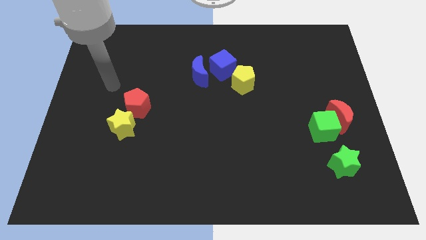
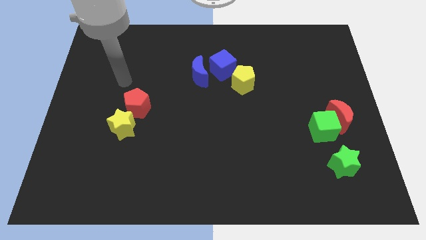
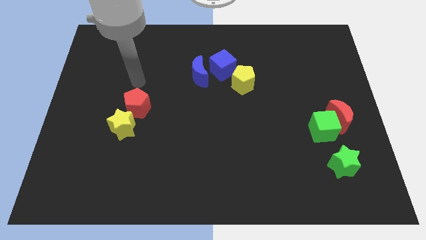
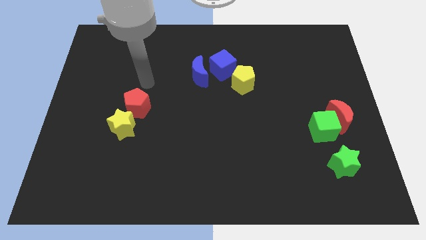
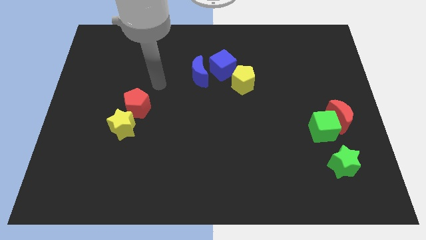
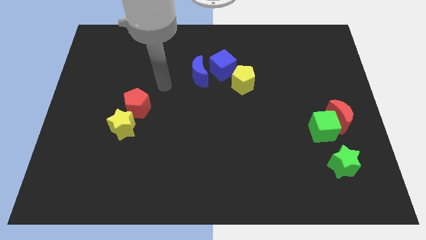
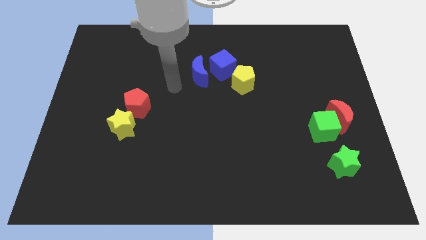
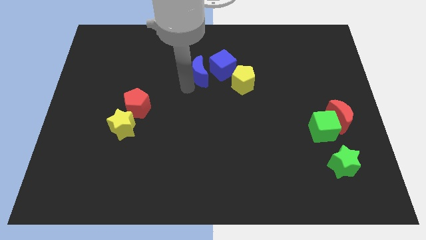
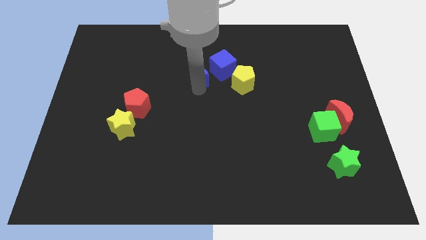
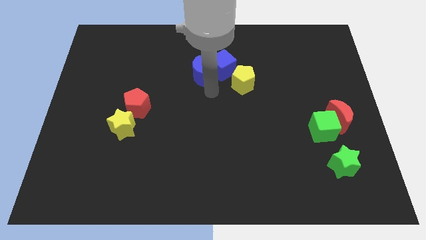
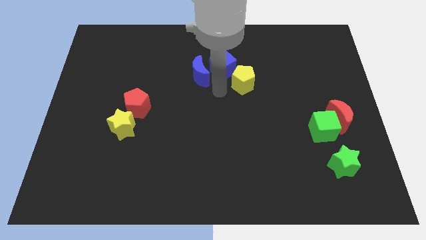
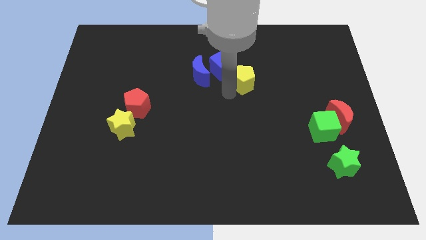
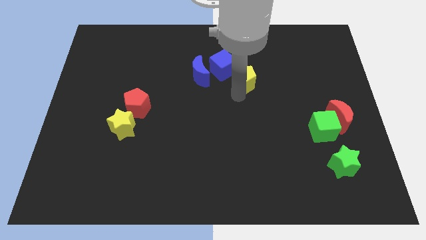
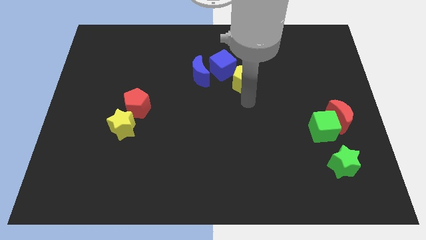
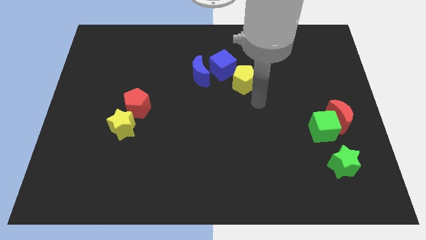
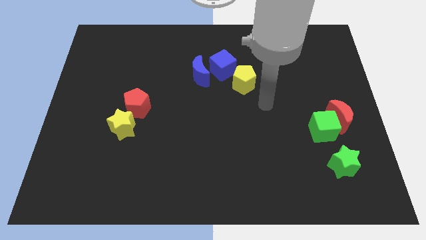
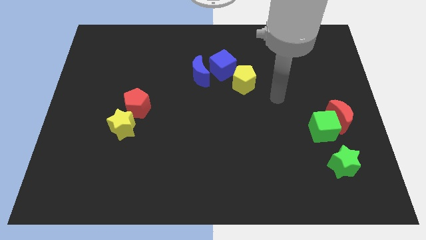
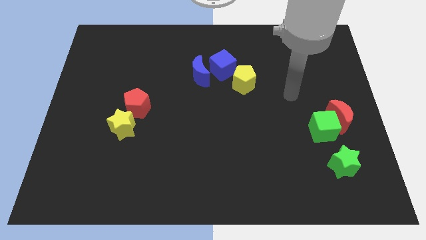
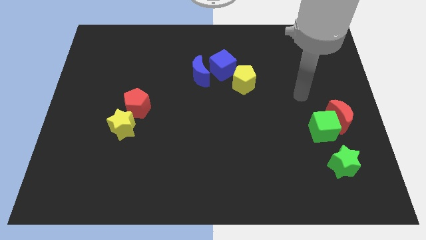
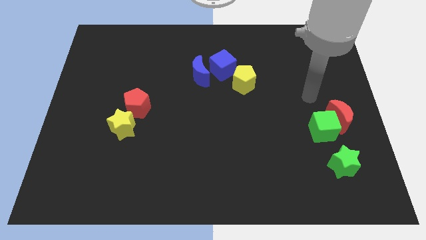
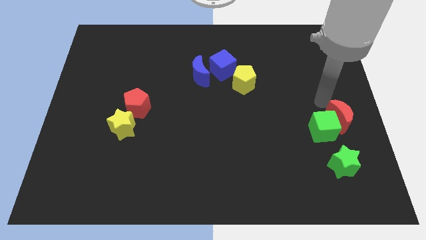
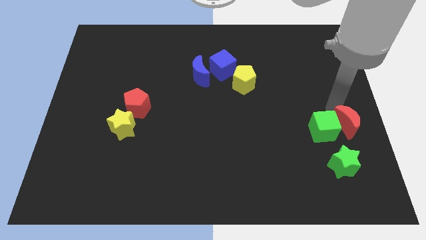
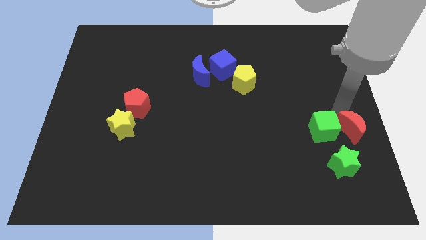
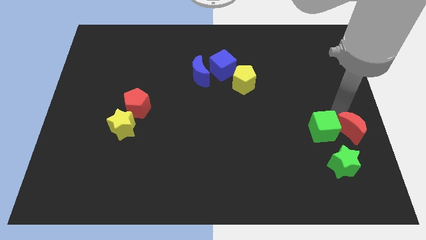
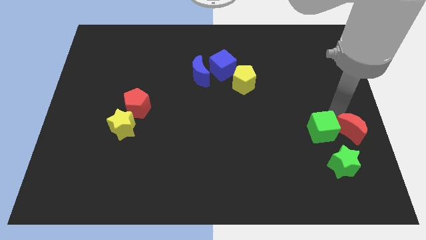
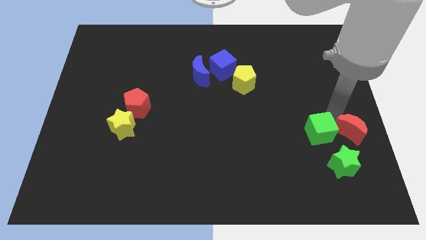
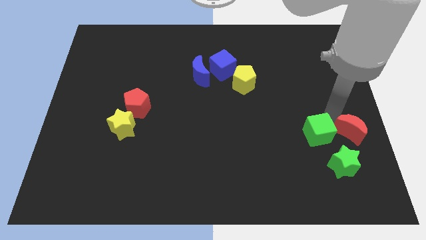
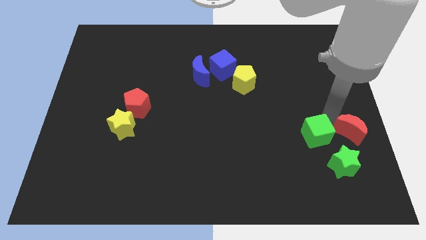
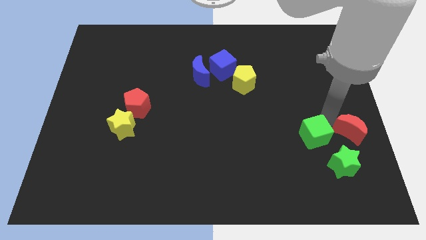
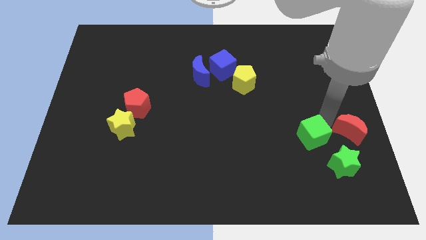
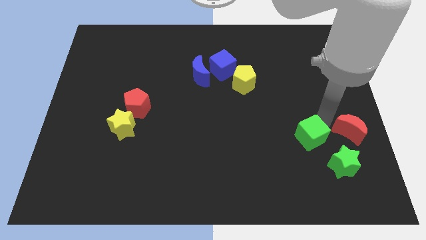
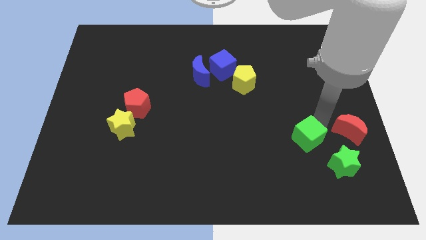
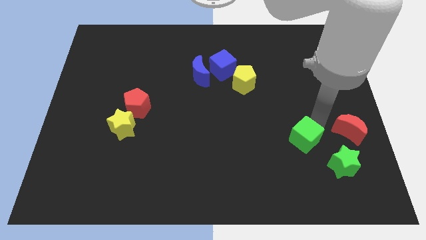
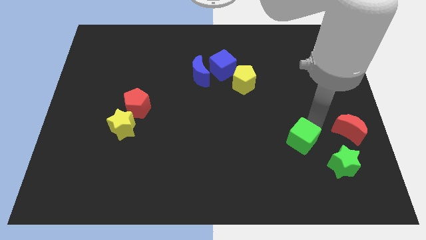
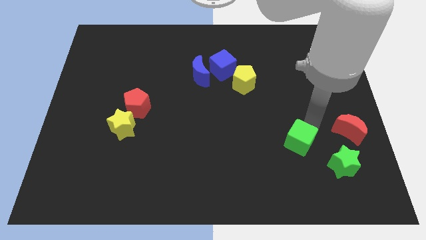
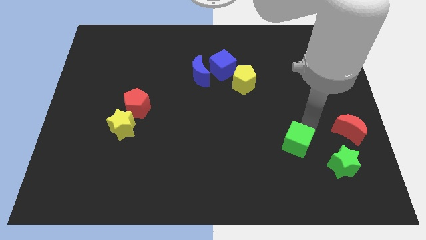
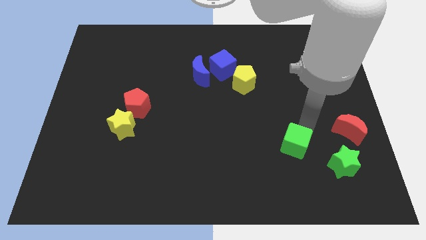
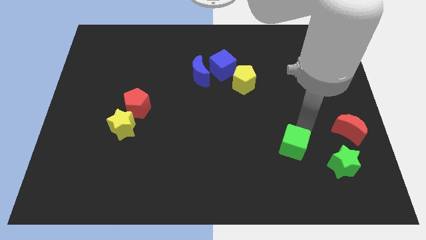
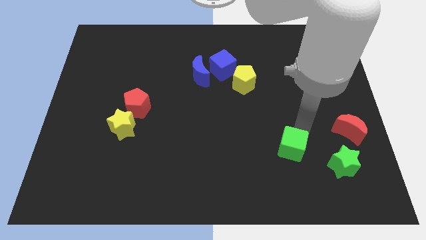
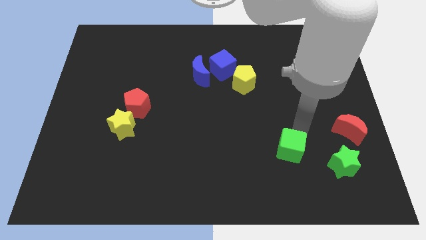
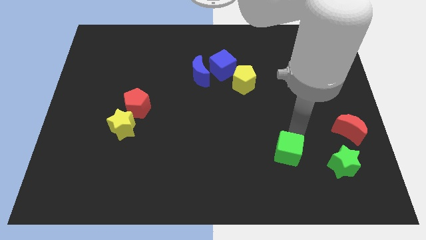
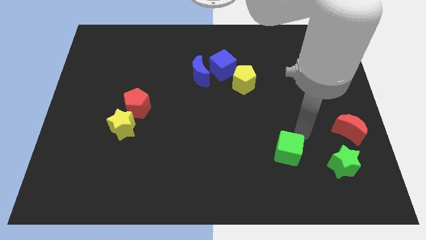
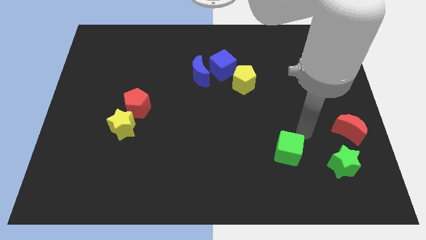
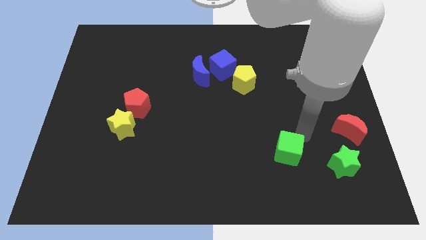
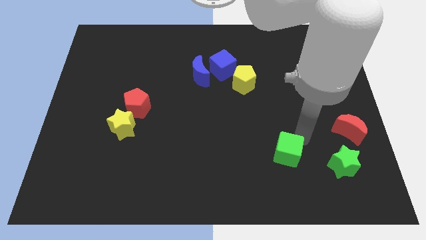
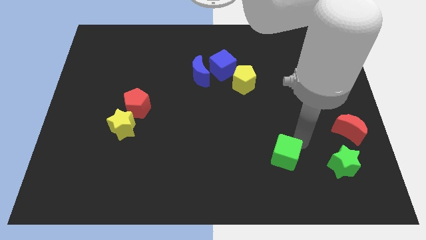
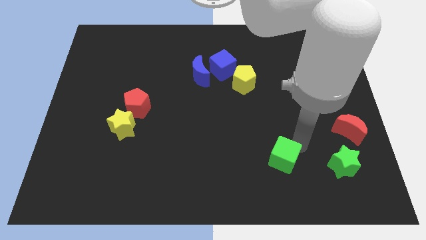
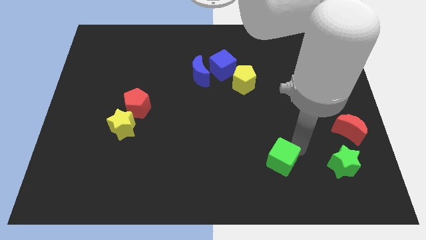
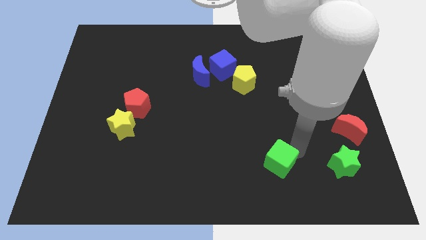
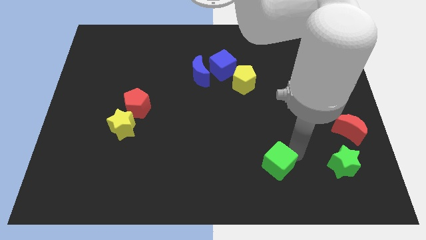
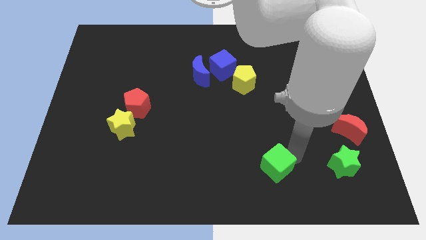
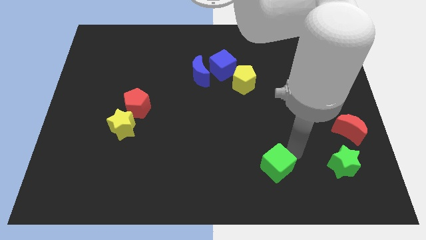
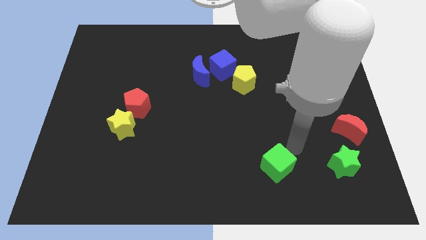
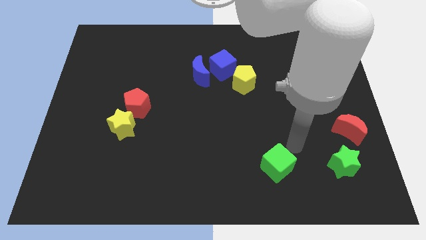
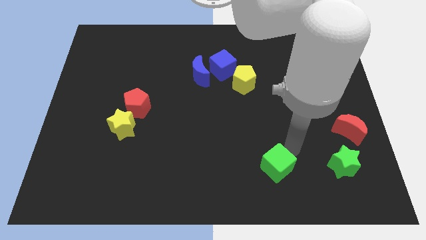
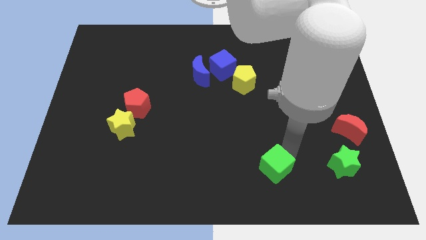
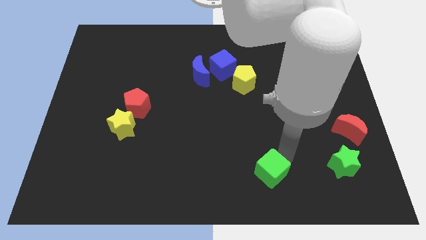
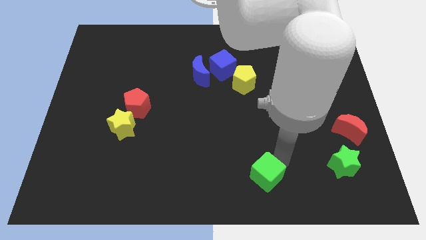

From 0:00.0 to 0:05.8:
slide the green cube to the bottom
